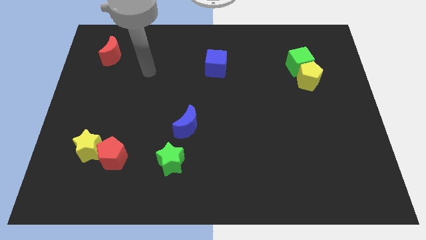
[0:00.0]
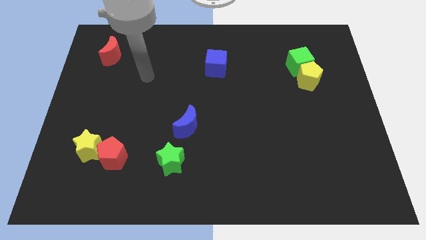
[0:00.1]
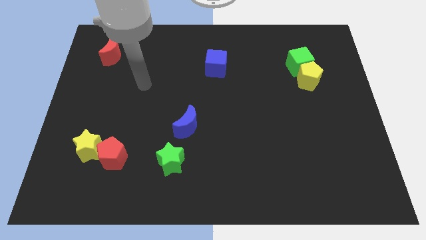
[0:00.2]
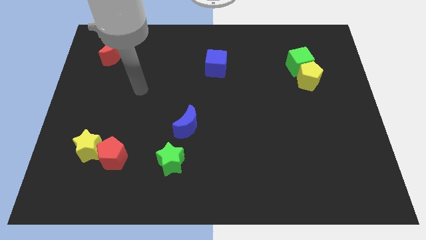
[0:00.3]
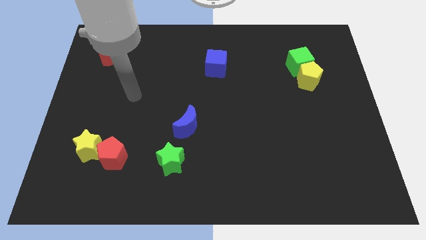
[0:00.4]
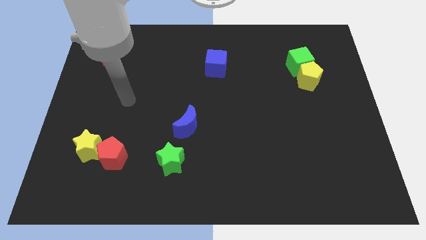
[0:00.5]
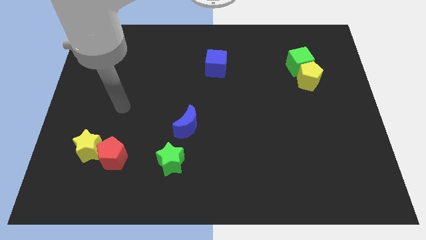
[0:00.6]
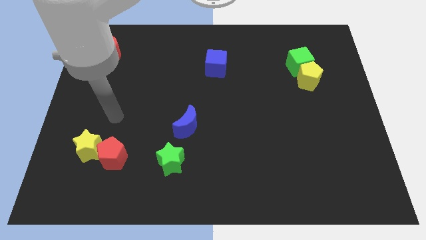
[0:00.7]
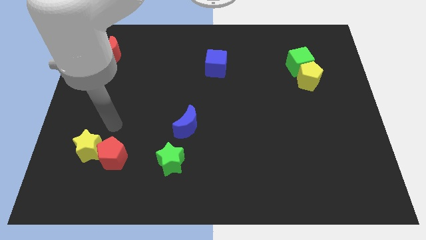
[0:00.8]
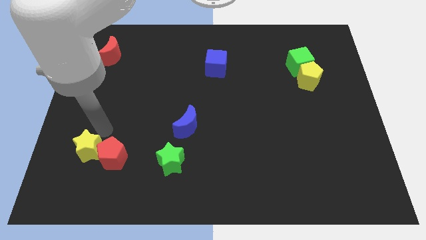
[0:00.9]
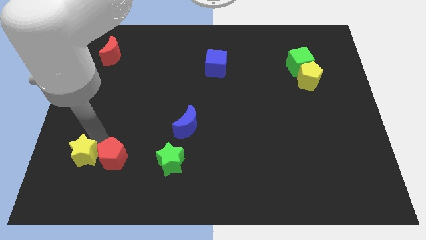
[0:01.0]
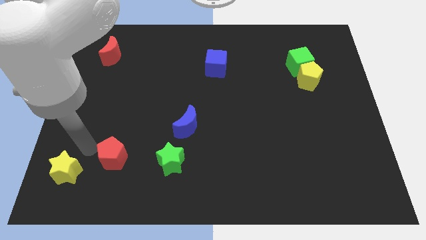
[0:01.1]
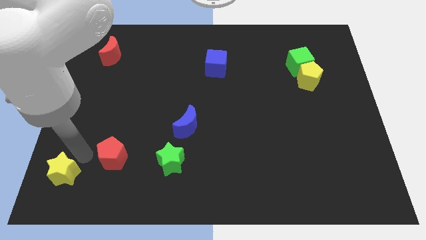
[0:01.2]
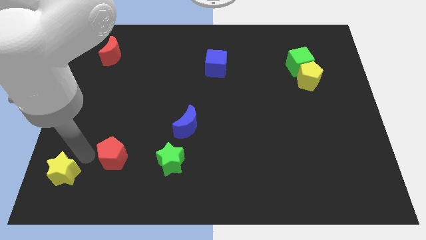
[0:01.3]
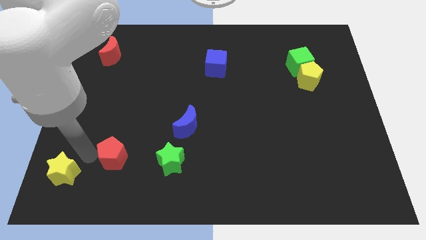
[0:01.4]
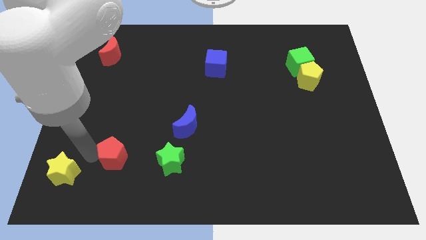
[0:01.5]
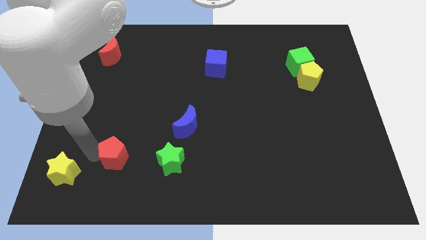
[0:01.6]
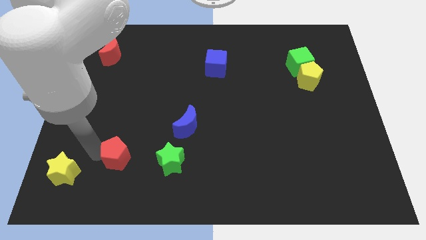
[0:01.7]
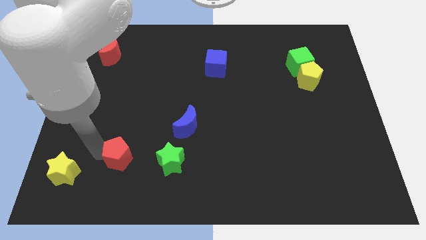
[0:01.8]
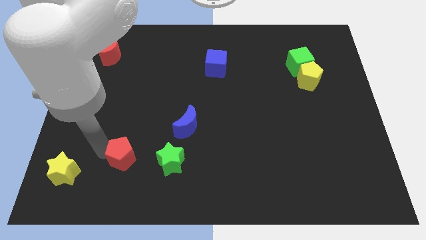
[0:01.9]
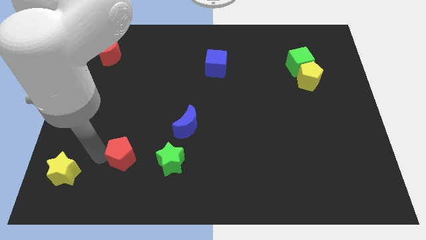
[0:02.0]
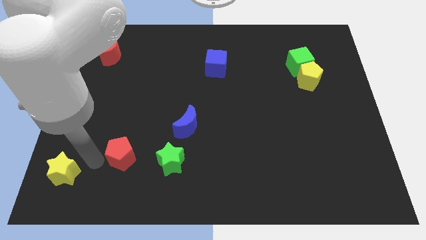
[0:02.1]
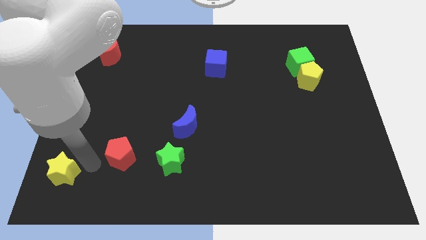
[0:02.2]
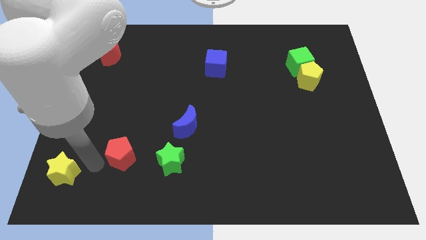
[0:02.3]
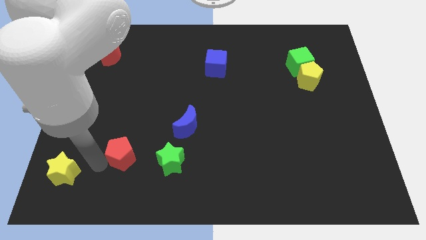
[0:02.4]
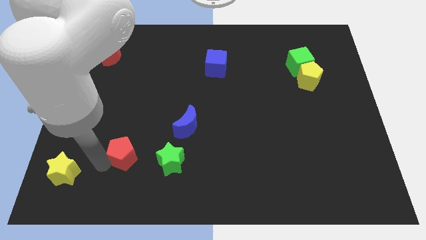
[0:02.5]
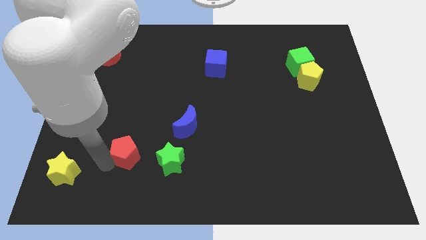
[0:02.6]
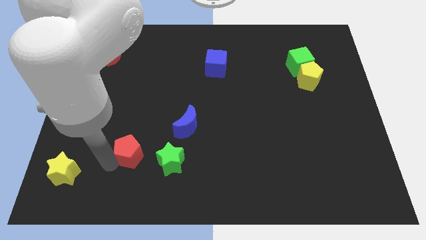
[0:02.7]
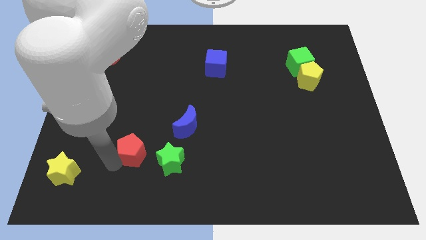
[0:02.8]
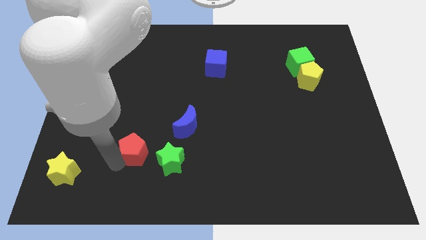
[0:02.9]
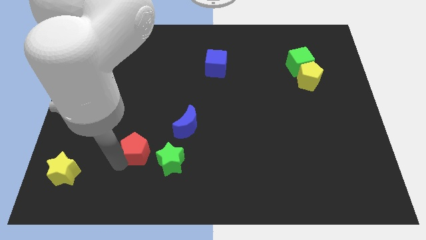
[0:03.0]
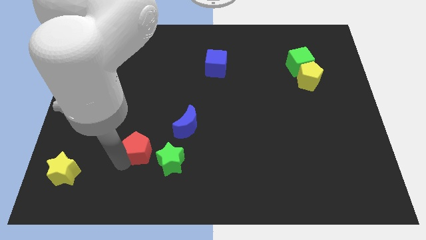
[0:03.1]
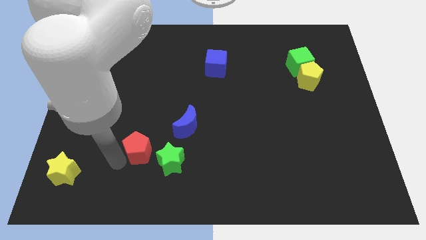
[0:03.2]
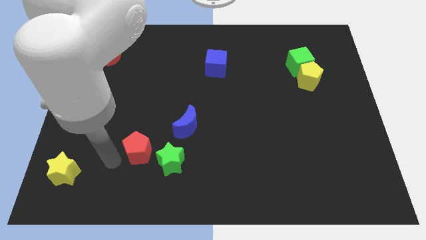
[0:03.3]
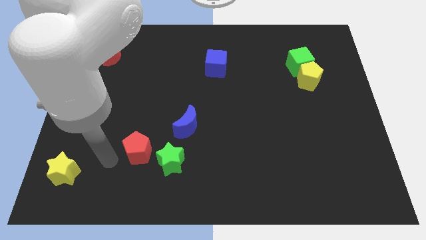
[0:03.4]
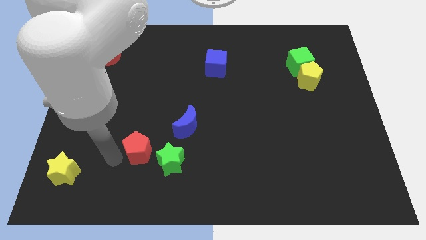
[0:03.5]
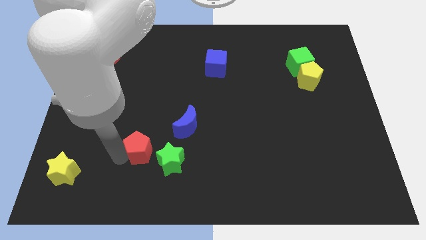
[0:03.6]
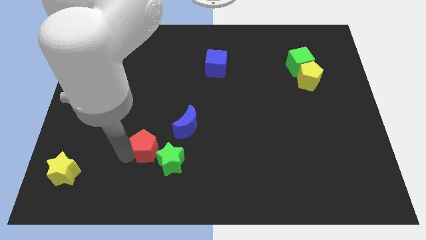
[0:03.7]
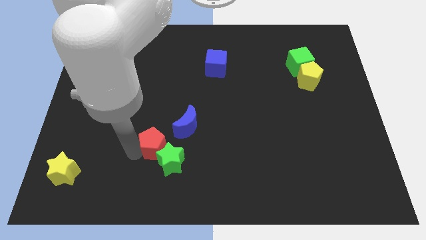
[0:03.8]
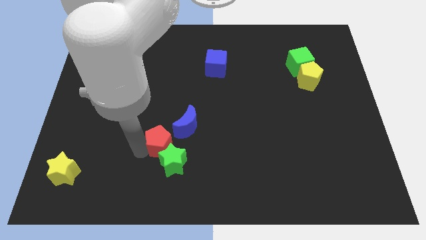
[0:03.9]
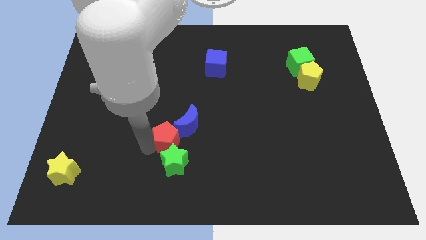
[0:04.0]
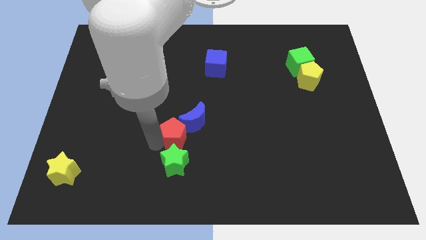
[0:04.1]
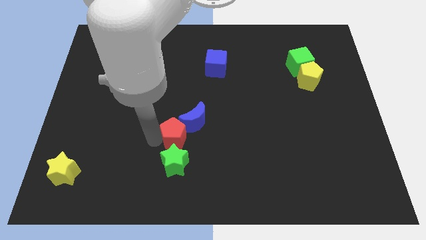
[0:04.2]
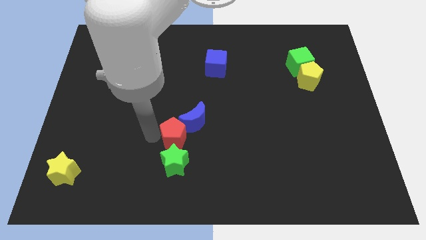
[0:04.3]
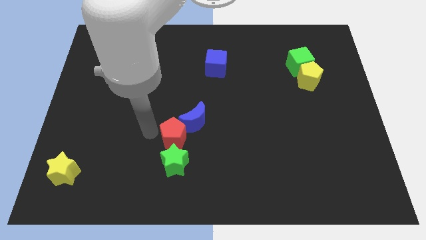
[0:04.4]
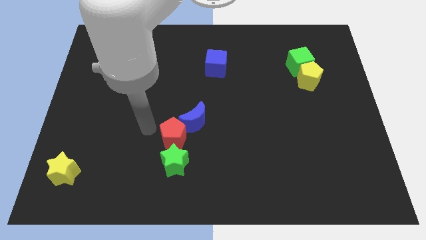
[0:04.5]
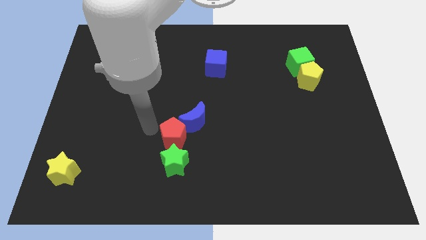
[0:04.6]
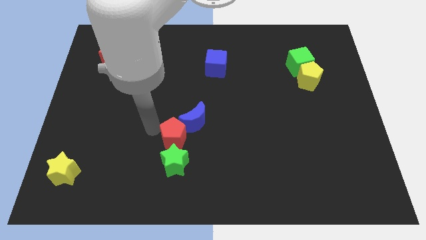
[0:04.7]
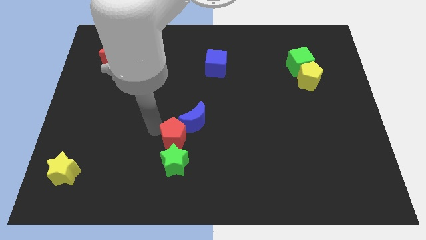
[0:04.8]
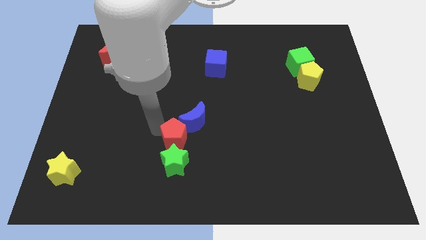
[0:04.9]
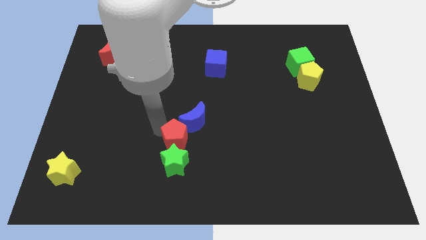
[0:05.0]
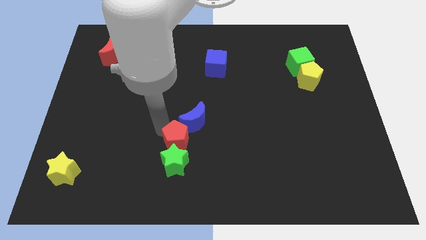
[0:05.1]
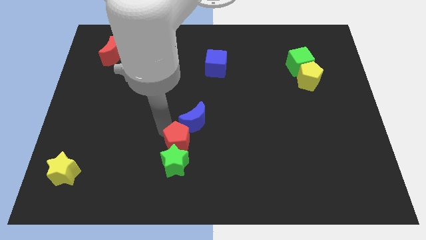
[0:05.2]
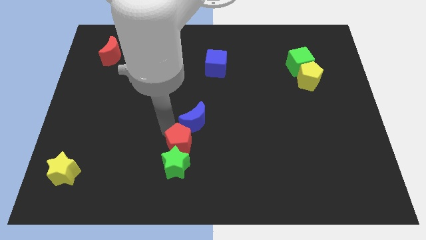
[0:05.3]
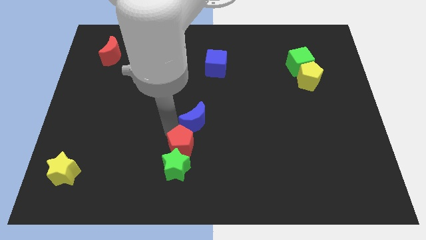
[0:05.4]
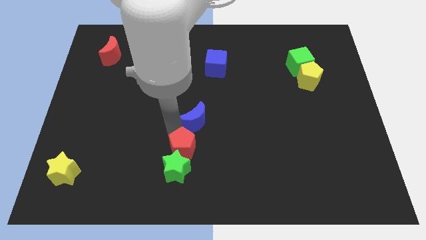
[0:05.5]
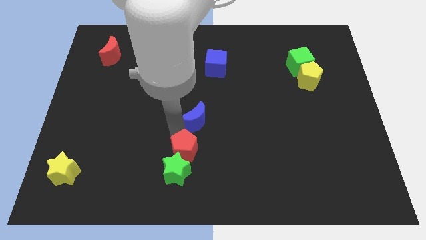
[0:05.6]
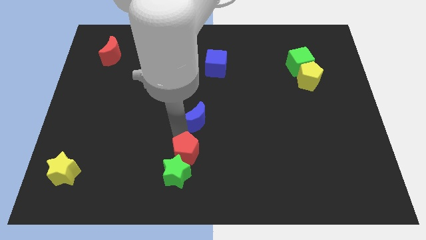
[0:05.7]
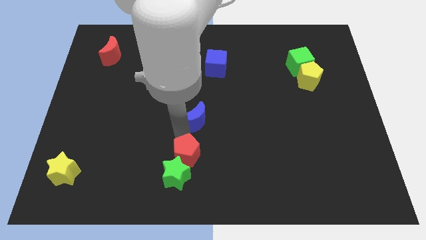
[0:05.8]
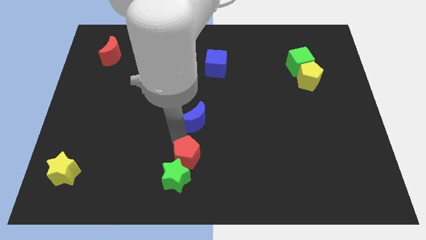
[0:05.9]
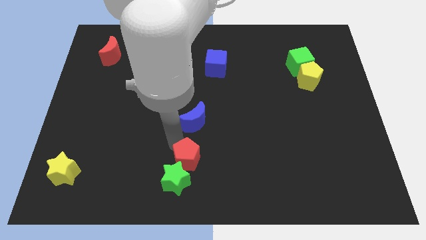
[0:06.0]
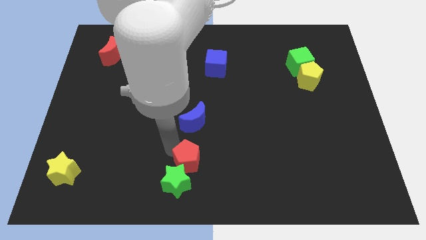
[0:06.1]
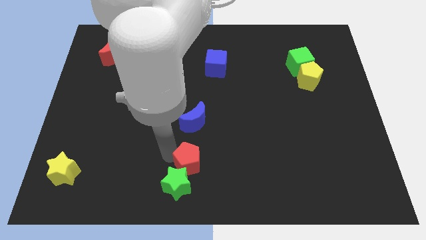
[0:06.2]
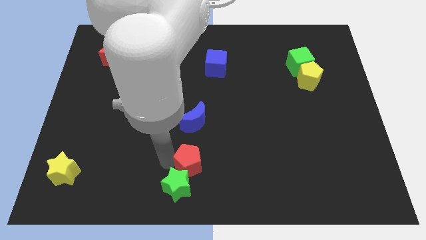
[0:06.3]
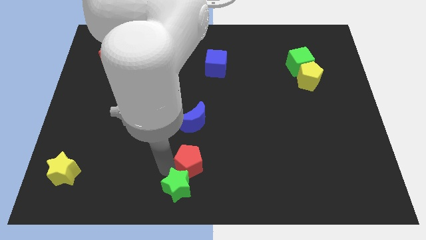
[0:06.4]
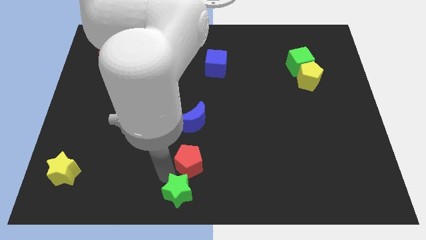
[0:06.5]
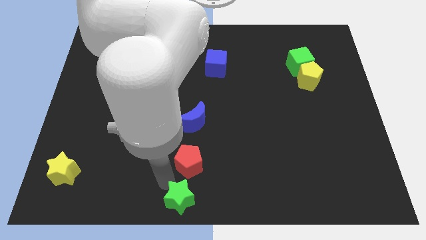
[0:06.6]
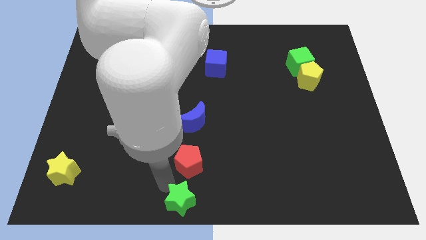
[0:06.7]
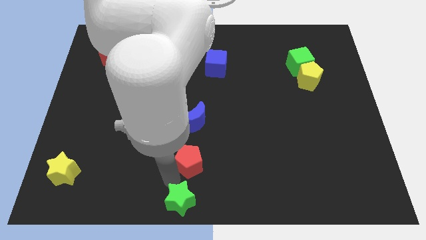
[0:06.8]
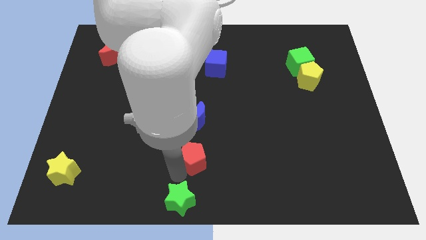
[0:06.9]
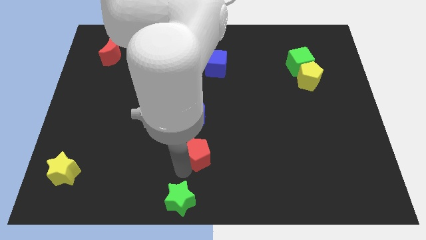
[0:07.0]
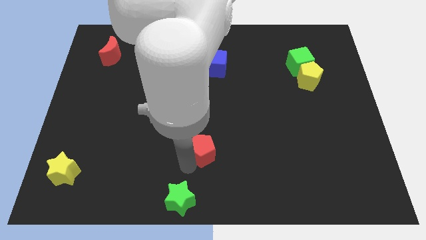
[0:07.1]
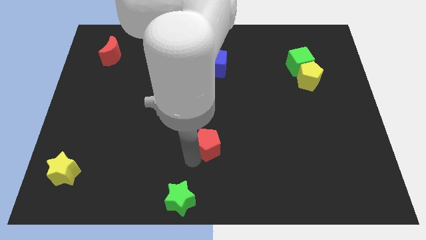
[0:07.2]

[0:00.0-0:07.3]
push the red pentagon to the right

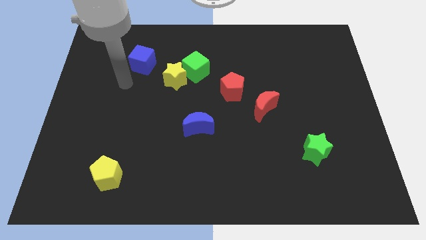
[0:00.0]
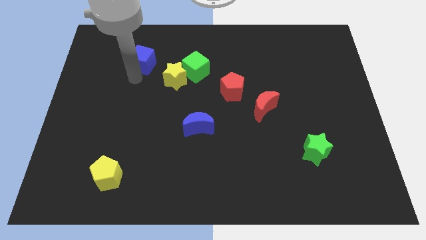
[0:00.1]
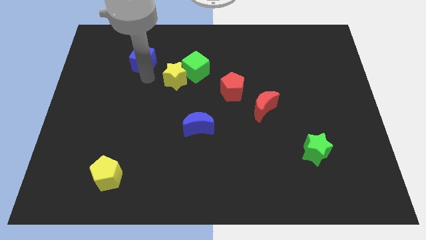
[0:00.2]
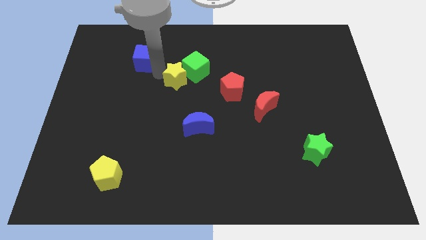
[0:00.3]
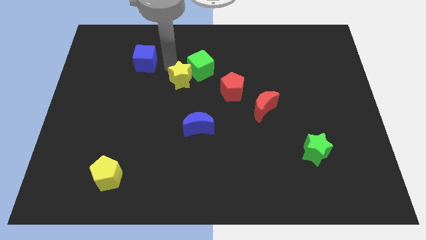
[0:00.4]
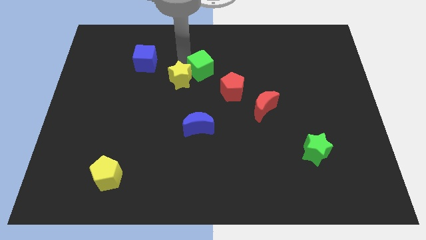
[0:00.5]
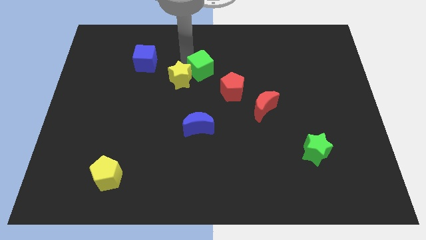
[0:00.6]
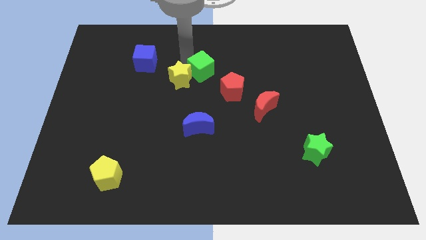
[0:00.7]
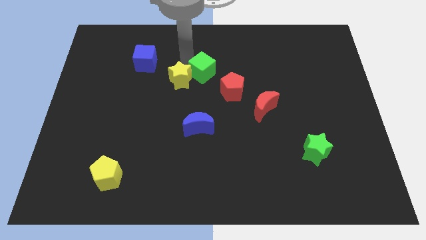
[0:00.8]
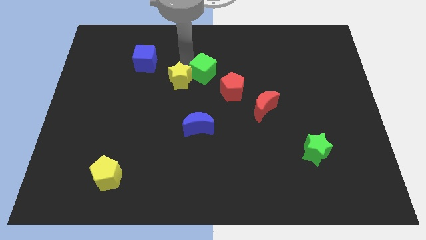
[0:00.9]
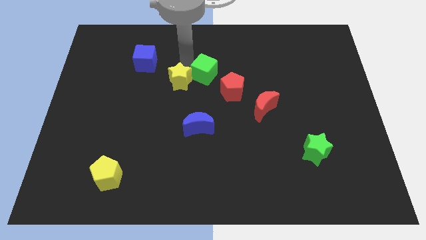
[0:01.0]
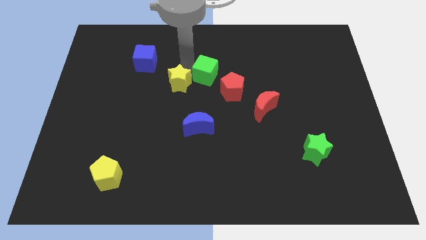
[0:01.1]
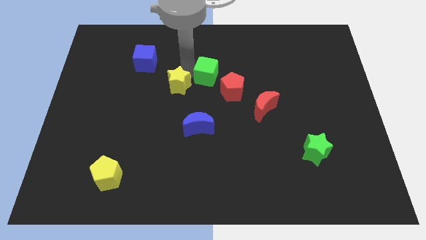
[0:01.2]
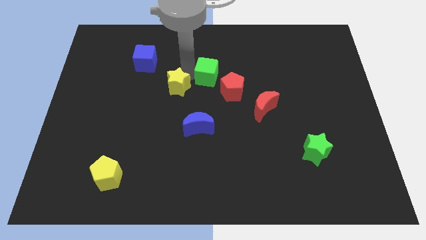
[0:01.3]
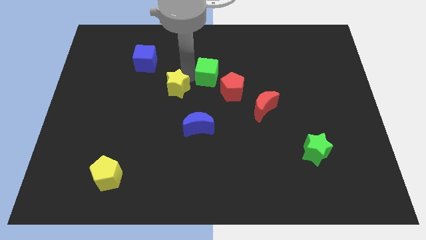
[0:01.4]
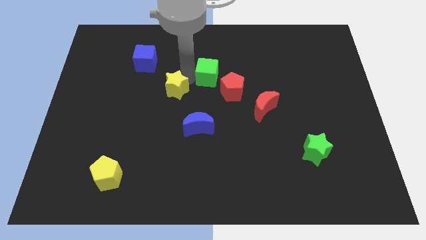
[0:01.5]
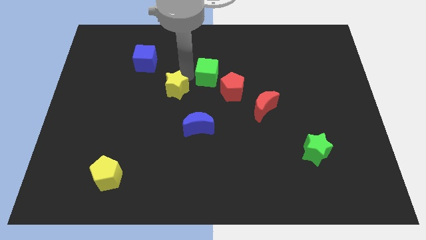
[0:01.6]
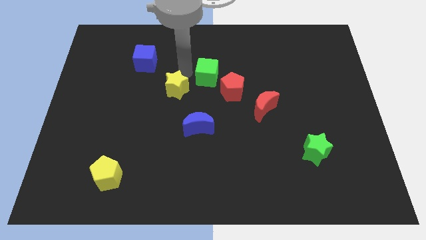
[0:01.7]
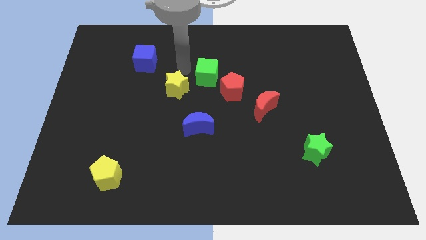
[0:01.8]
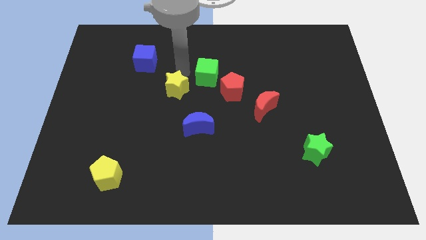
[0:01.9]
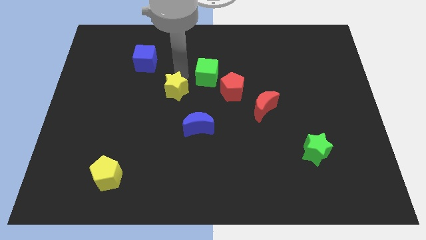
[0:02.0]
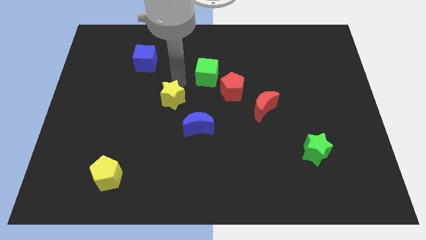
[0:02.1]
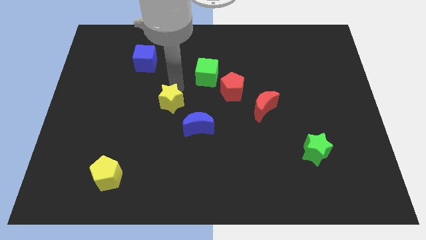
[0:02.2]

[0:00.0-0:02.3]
slightly move the yellow star downwards
